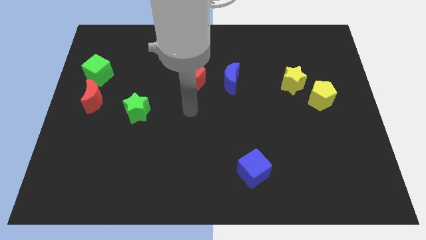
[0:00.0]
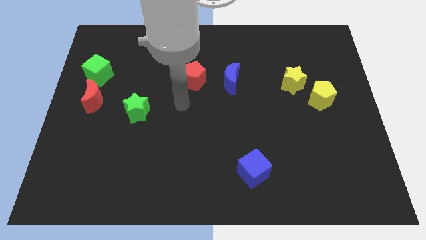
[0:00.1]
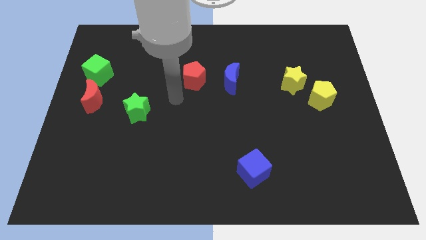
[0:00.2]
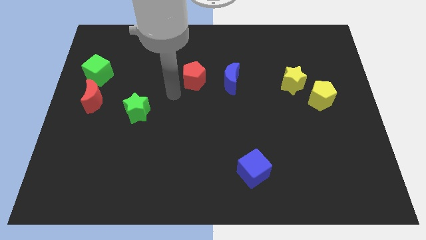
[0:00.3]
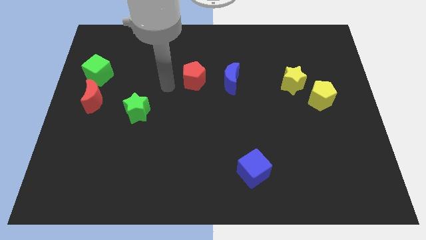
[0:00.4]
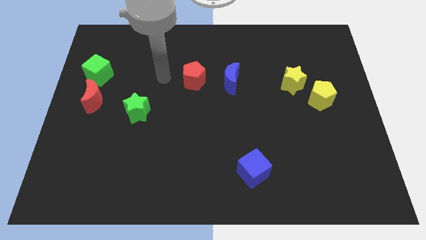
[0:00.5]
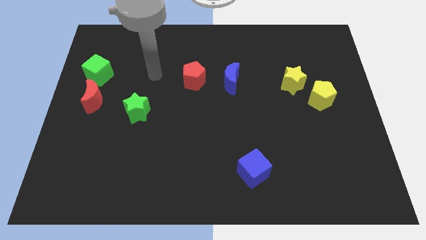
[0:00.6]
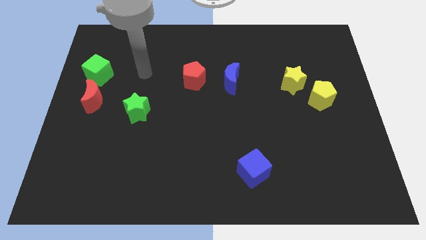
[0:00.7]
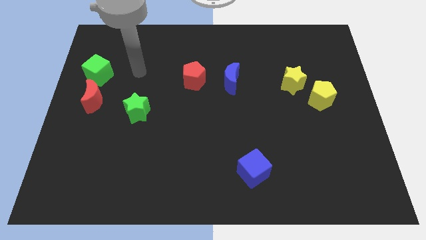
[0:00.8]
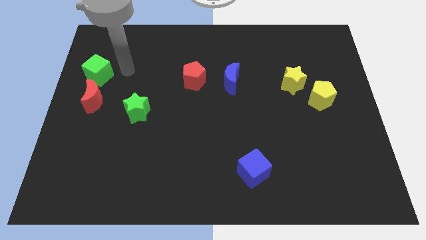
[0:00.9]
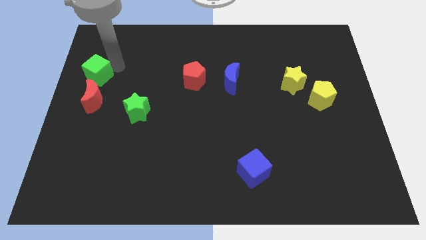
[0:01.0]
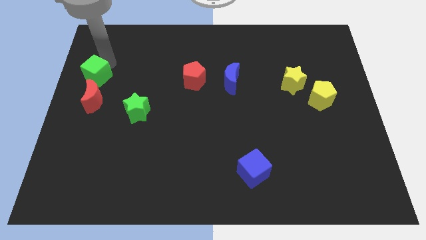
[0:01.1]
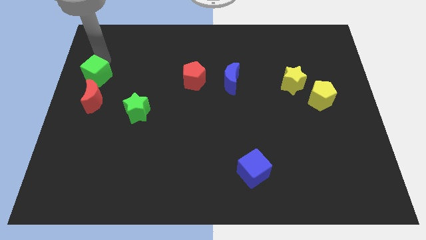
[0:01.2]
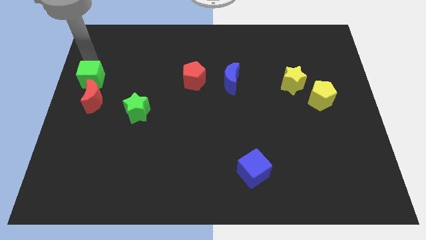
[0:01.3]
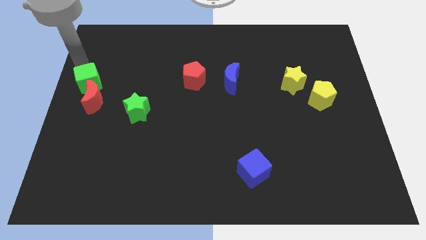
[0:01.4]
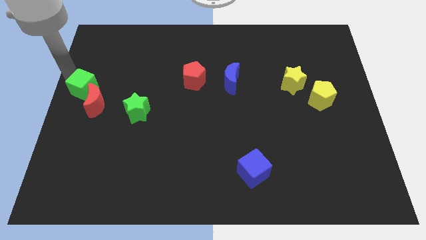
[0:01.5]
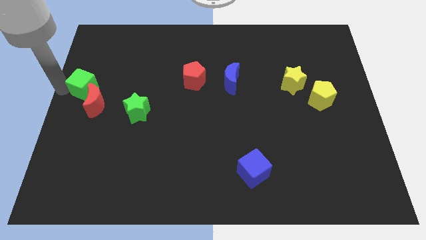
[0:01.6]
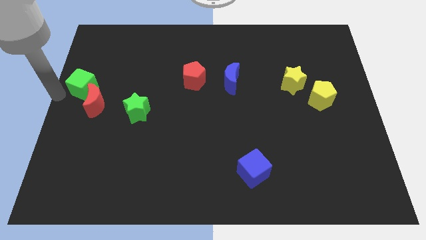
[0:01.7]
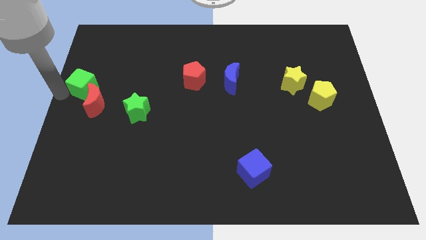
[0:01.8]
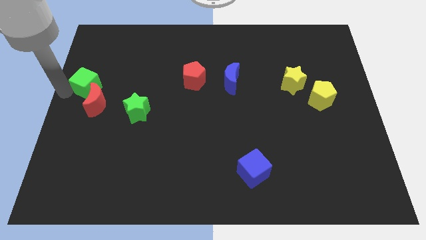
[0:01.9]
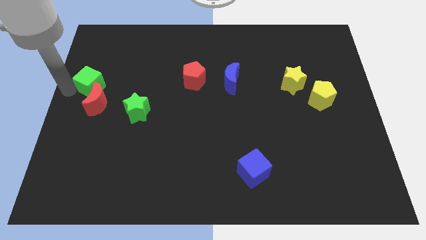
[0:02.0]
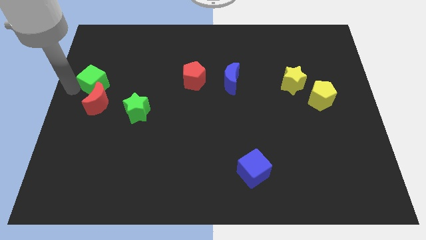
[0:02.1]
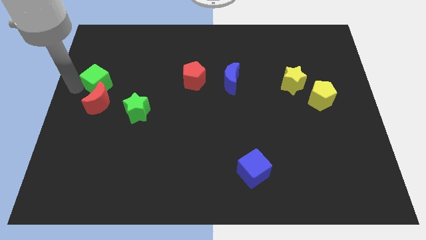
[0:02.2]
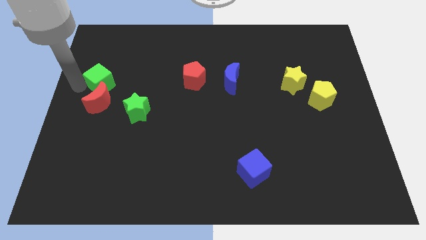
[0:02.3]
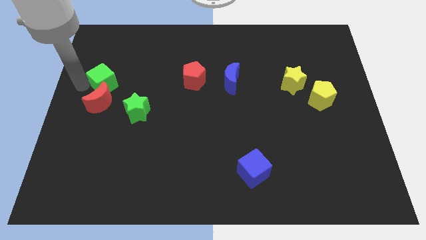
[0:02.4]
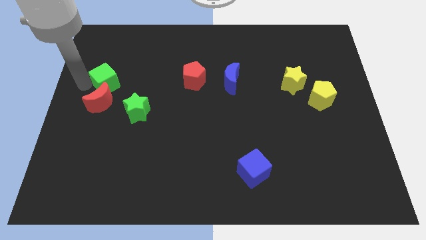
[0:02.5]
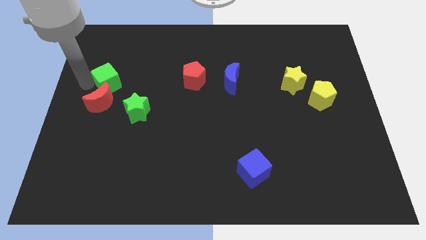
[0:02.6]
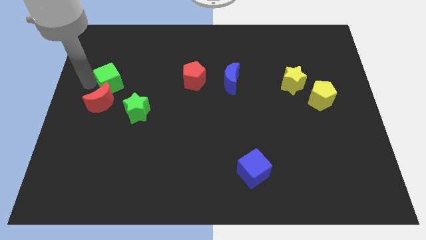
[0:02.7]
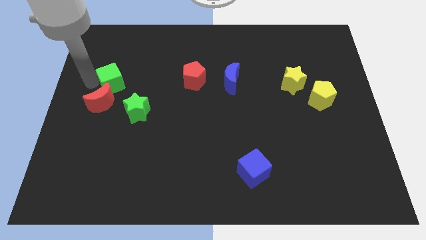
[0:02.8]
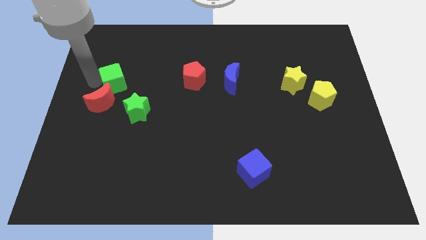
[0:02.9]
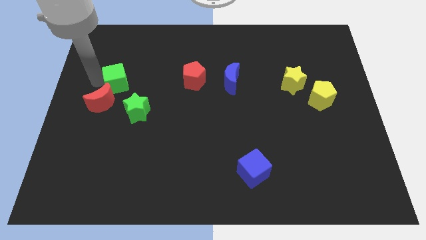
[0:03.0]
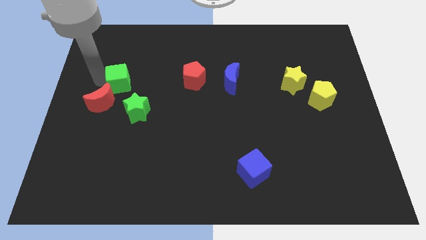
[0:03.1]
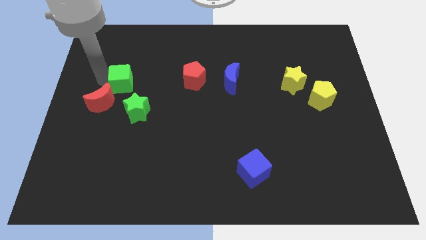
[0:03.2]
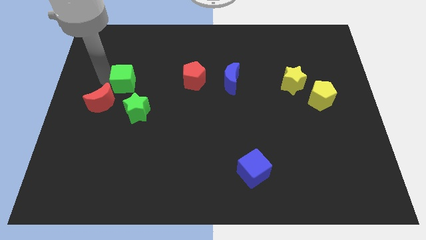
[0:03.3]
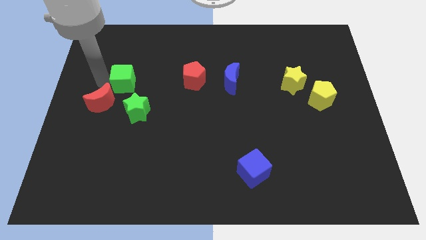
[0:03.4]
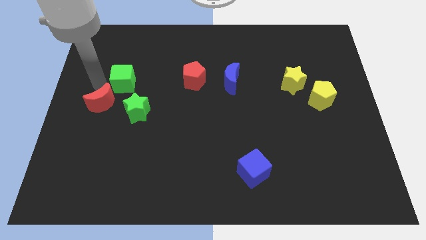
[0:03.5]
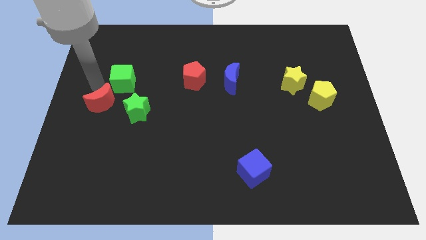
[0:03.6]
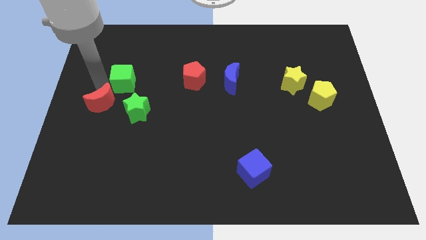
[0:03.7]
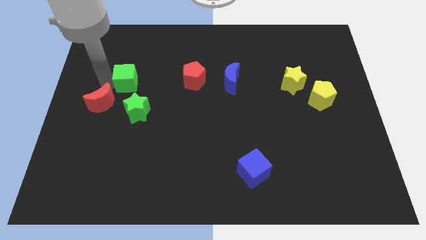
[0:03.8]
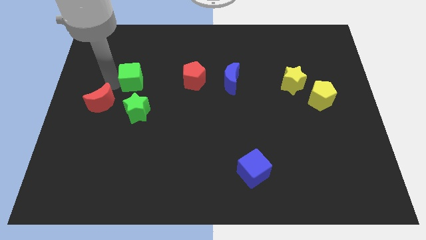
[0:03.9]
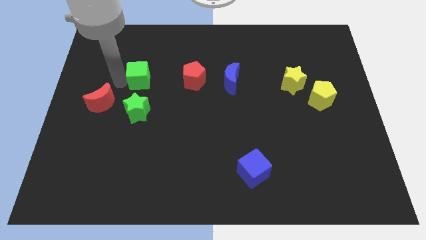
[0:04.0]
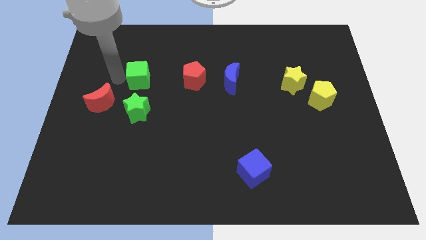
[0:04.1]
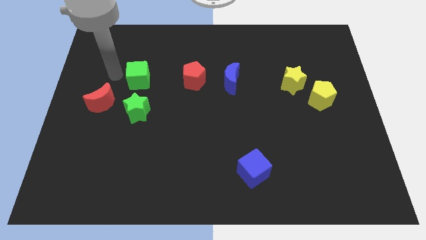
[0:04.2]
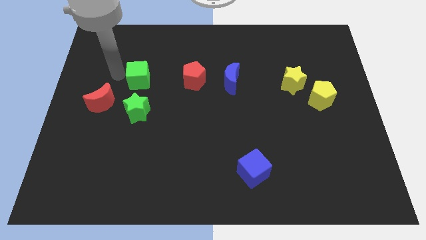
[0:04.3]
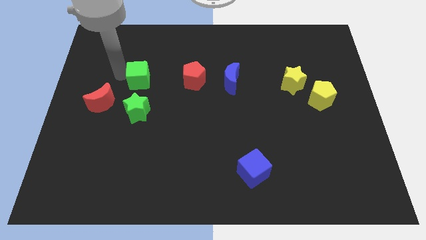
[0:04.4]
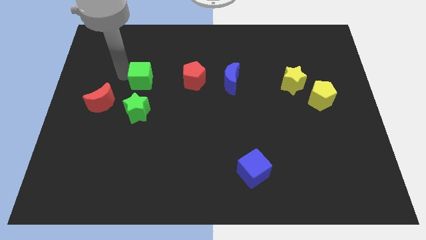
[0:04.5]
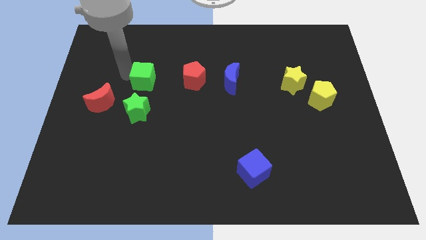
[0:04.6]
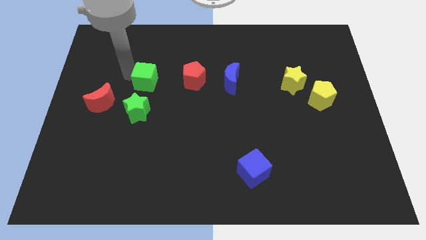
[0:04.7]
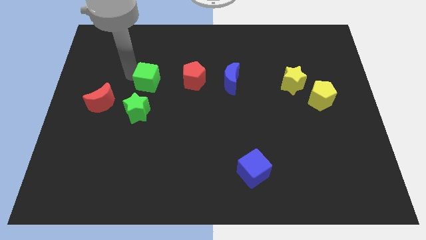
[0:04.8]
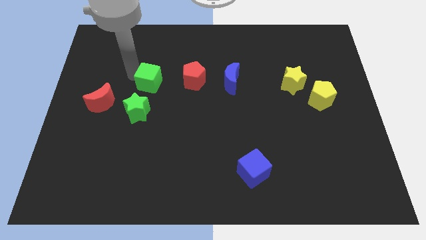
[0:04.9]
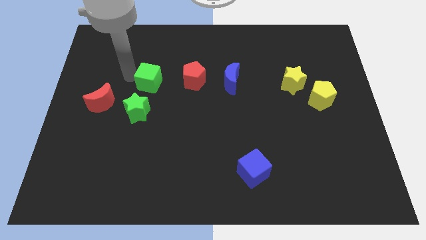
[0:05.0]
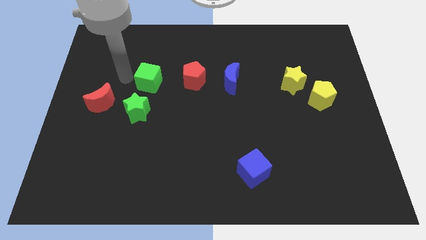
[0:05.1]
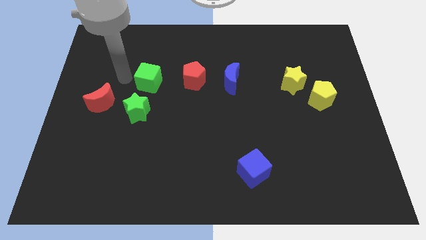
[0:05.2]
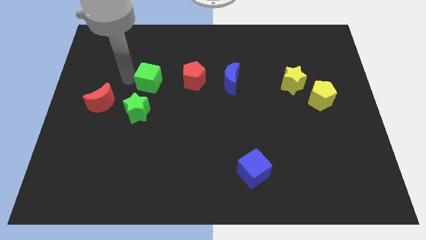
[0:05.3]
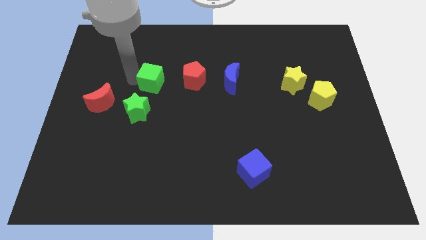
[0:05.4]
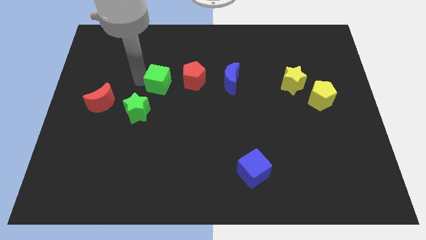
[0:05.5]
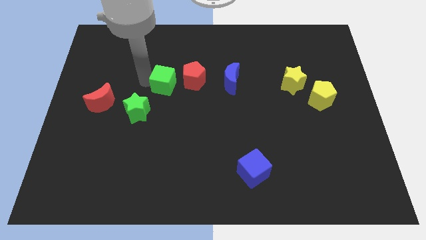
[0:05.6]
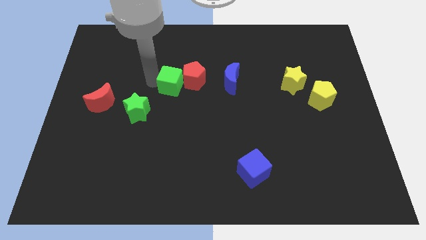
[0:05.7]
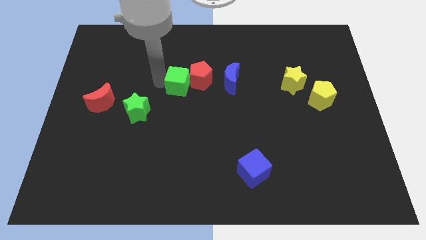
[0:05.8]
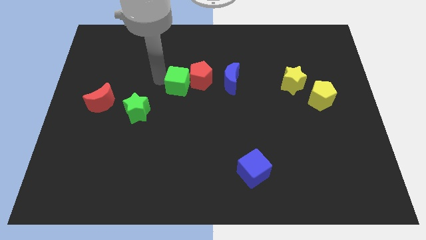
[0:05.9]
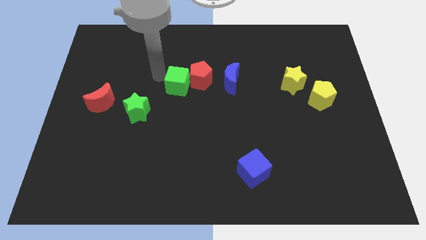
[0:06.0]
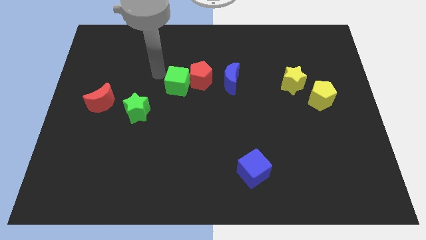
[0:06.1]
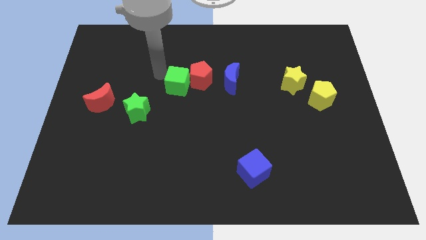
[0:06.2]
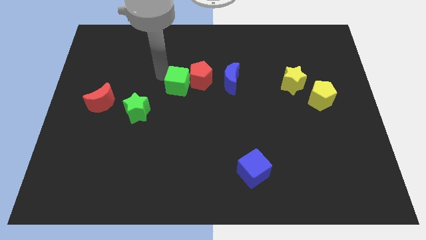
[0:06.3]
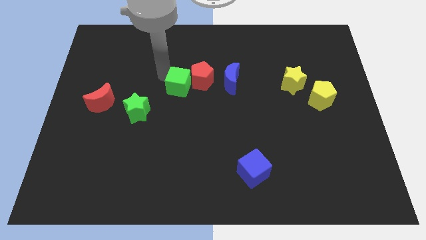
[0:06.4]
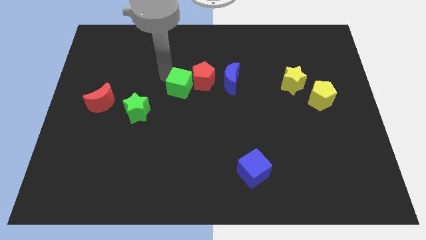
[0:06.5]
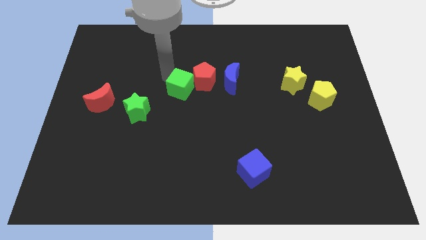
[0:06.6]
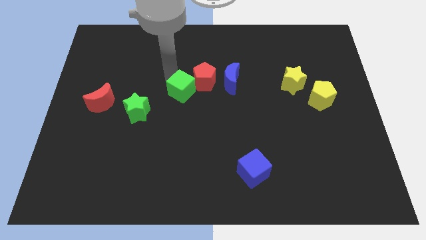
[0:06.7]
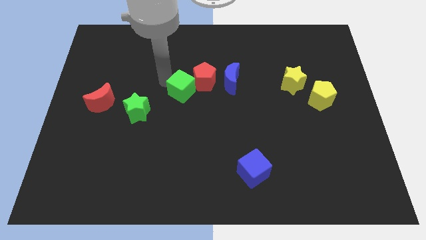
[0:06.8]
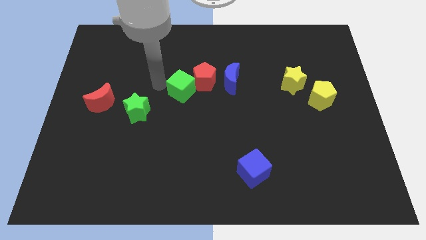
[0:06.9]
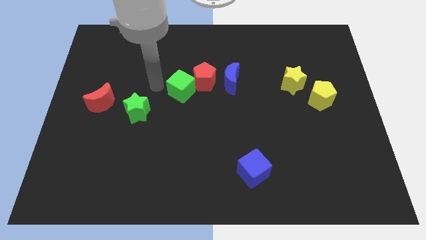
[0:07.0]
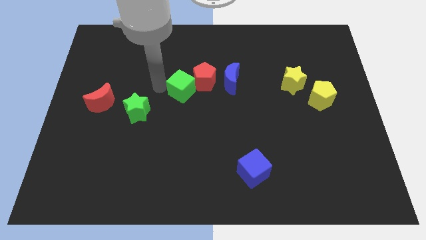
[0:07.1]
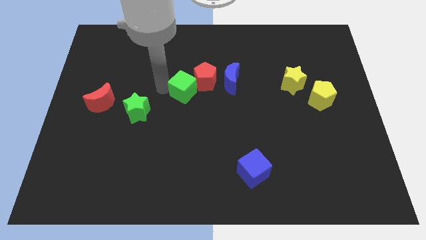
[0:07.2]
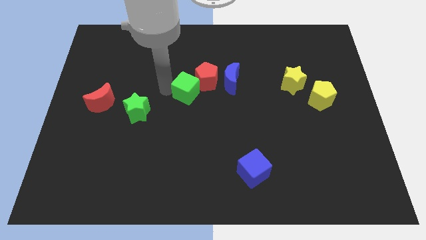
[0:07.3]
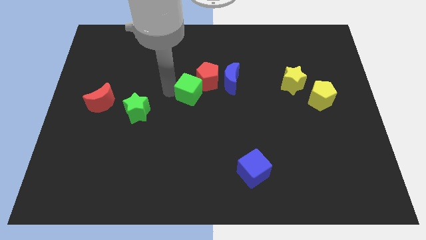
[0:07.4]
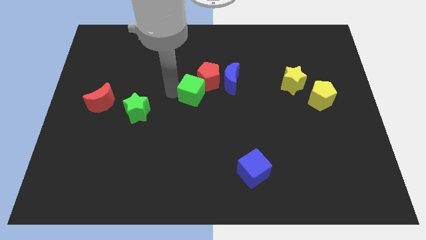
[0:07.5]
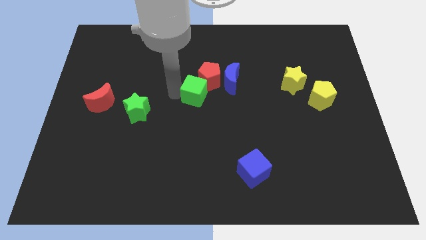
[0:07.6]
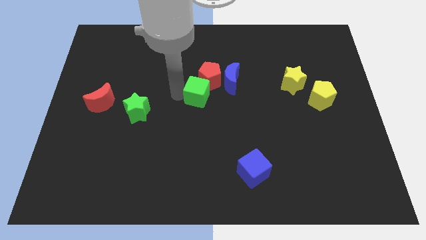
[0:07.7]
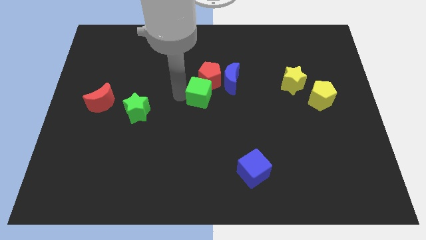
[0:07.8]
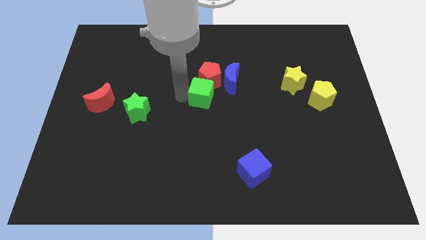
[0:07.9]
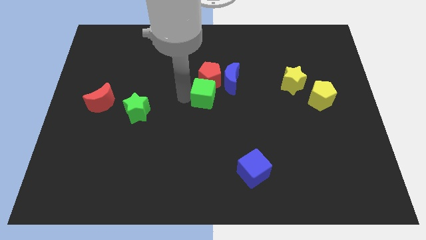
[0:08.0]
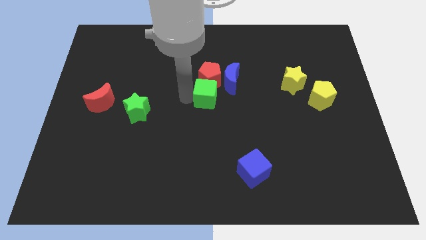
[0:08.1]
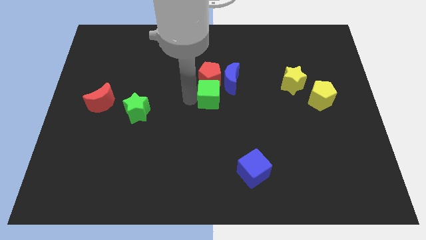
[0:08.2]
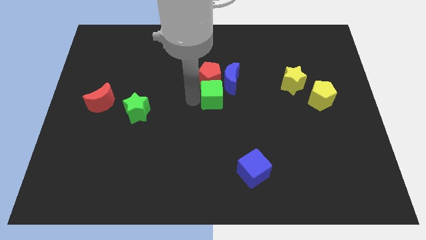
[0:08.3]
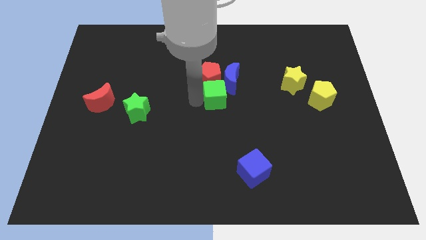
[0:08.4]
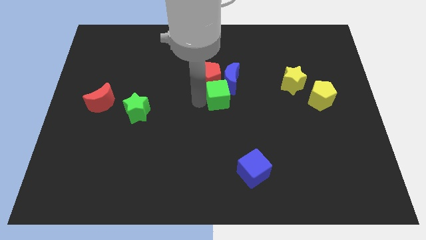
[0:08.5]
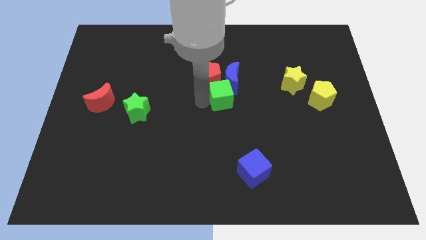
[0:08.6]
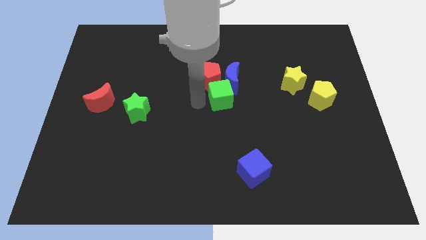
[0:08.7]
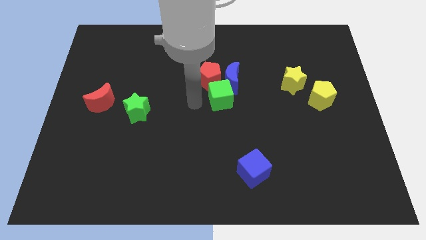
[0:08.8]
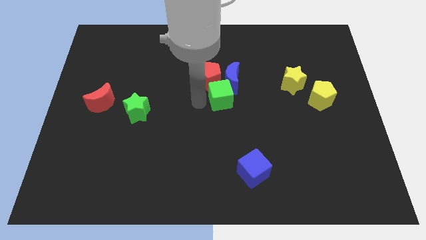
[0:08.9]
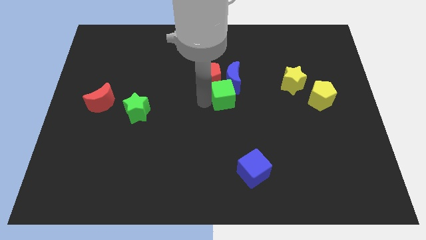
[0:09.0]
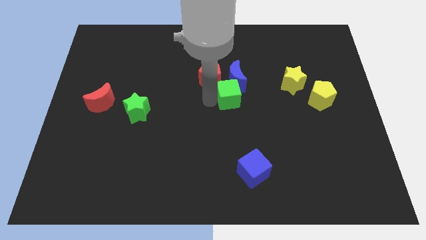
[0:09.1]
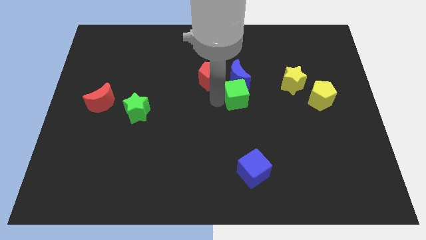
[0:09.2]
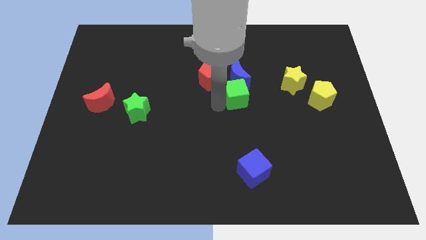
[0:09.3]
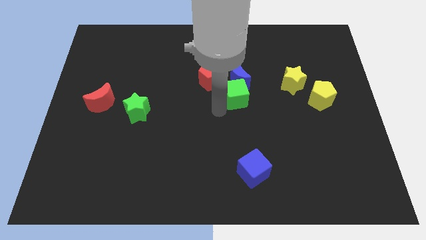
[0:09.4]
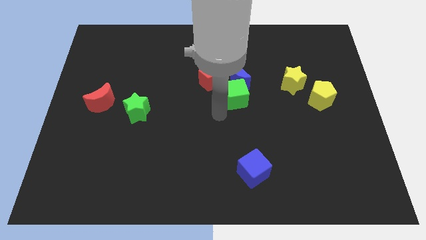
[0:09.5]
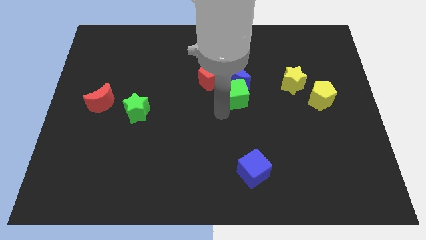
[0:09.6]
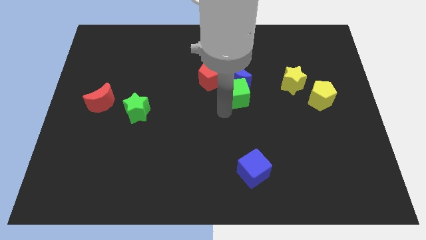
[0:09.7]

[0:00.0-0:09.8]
put the green cube to the left of the yellow star
